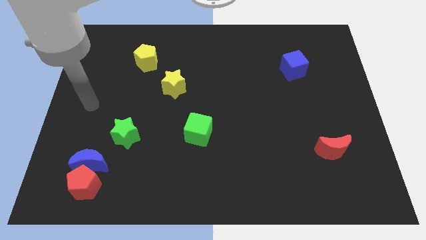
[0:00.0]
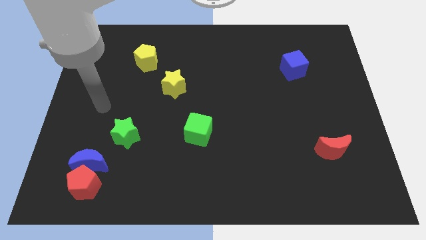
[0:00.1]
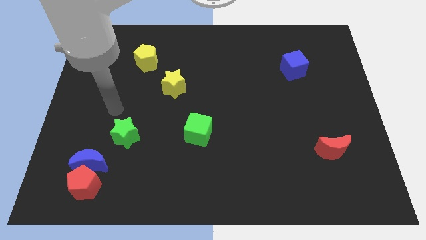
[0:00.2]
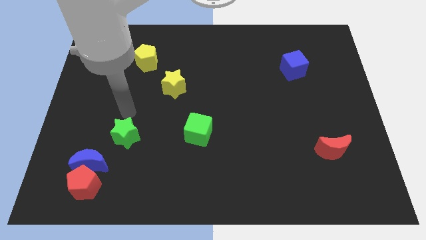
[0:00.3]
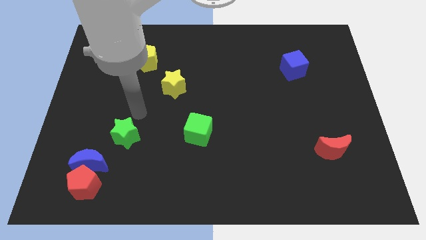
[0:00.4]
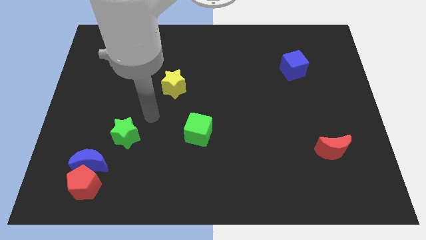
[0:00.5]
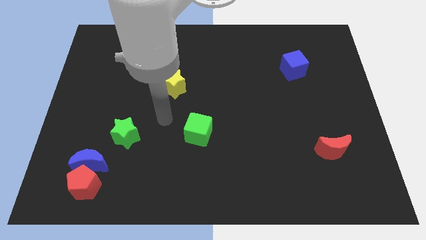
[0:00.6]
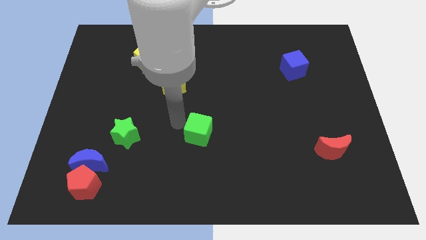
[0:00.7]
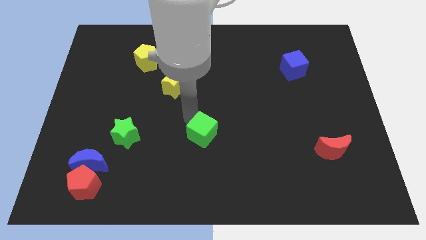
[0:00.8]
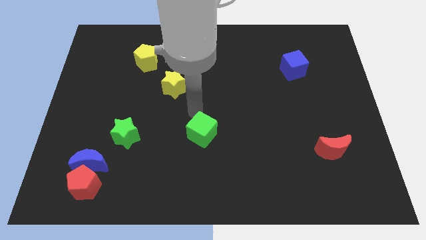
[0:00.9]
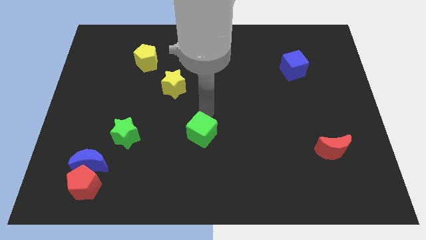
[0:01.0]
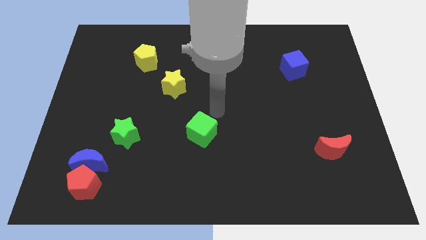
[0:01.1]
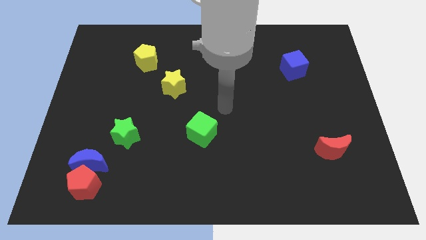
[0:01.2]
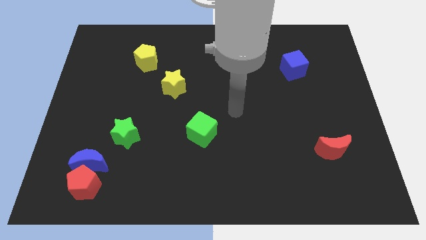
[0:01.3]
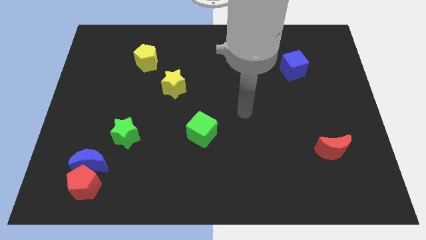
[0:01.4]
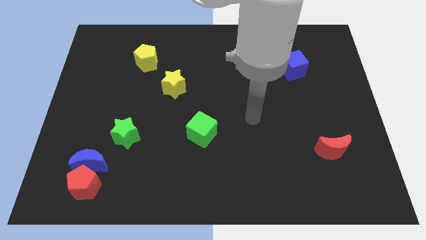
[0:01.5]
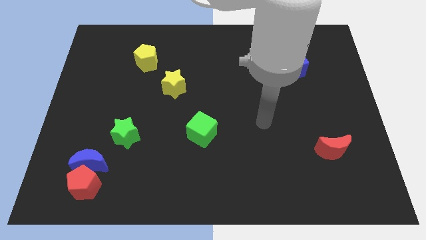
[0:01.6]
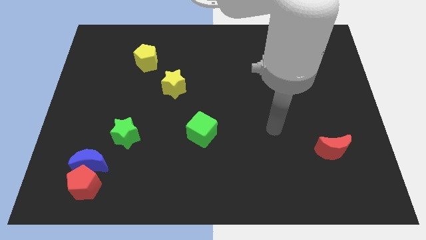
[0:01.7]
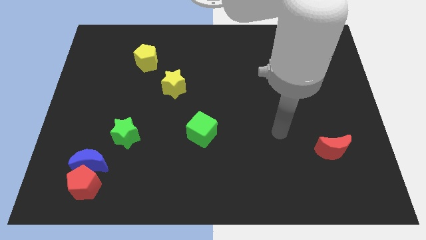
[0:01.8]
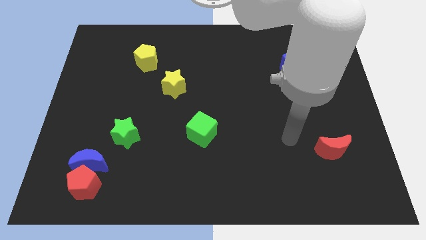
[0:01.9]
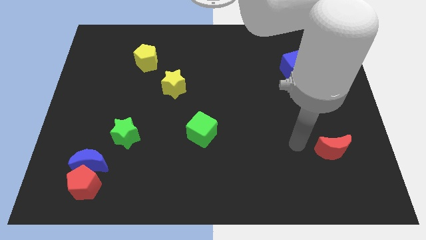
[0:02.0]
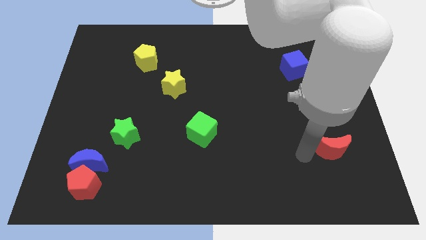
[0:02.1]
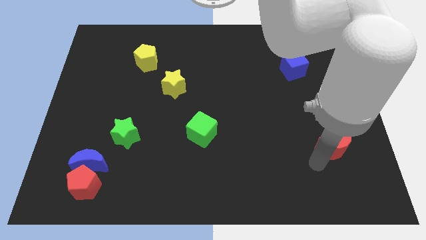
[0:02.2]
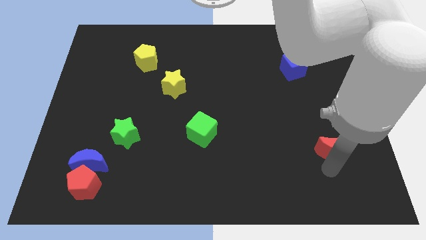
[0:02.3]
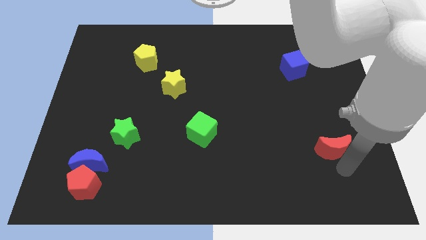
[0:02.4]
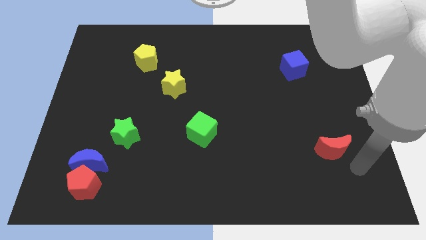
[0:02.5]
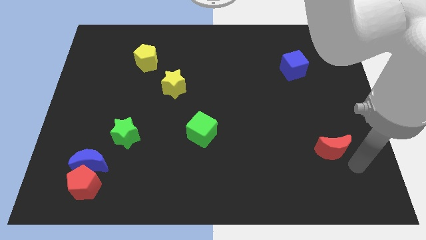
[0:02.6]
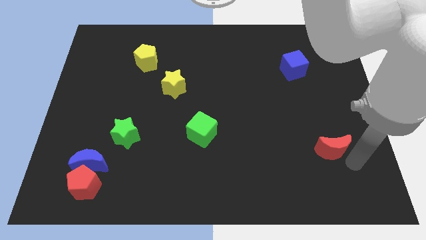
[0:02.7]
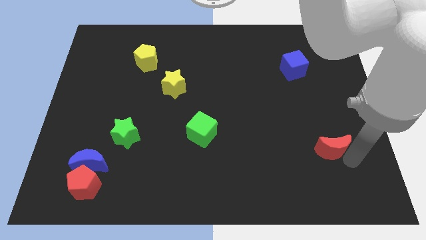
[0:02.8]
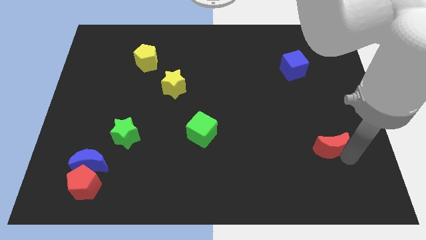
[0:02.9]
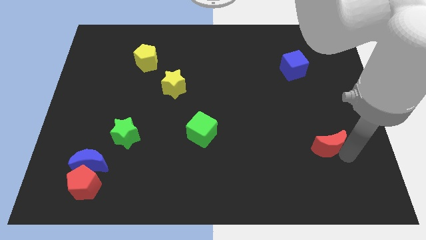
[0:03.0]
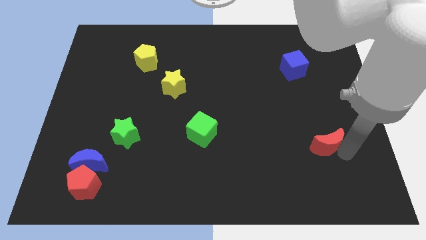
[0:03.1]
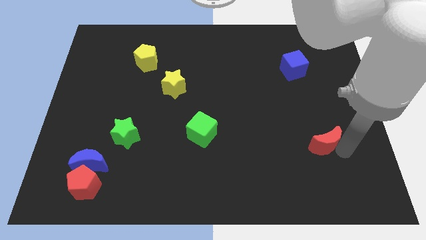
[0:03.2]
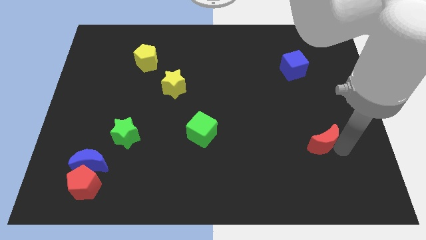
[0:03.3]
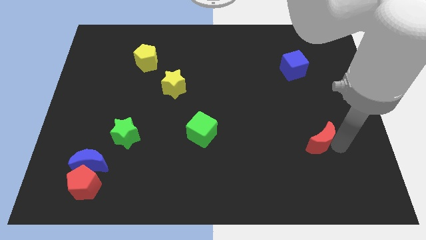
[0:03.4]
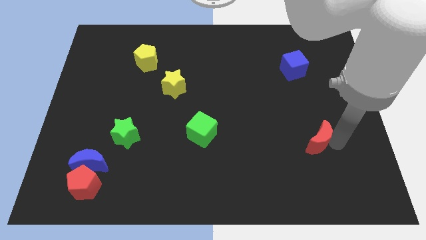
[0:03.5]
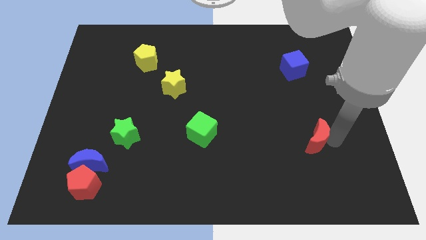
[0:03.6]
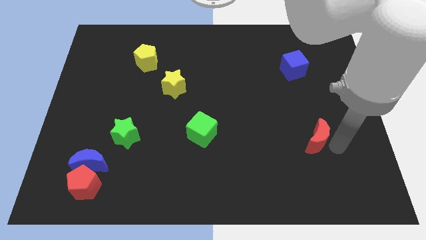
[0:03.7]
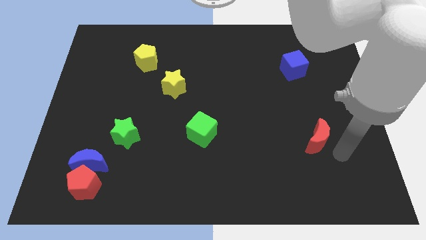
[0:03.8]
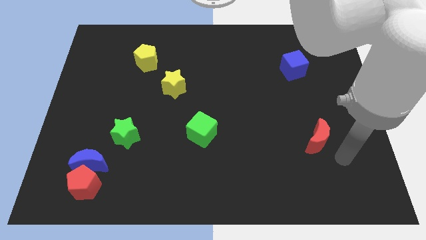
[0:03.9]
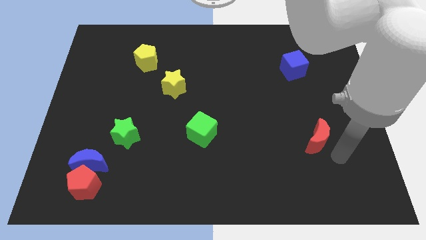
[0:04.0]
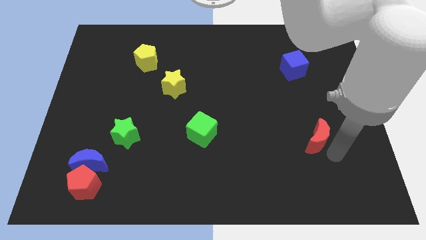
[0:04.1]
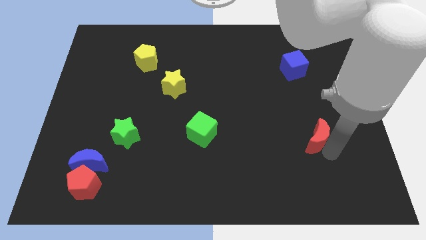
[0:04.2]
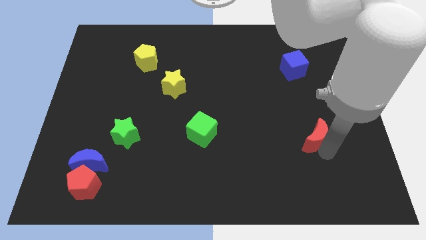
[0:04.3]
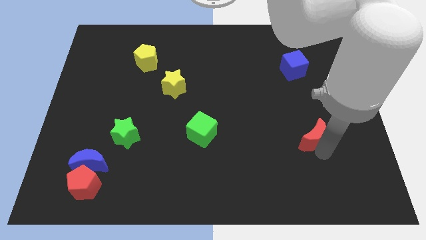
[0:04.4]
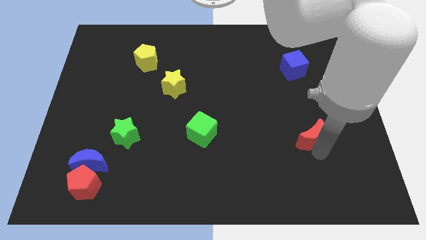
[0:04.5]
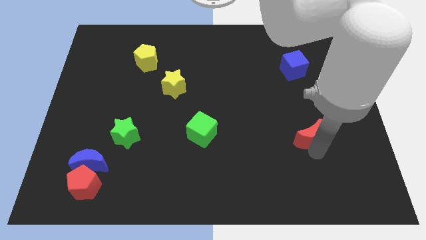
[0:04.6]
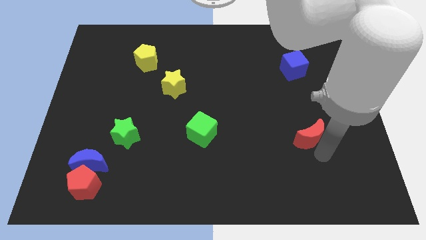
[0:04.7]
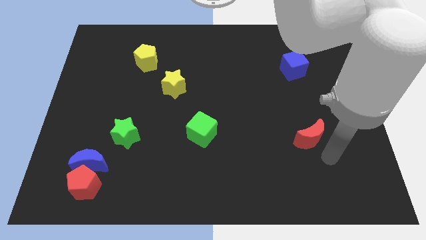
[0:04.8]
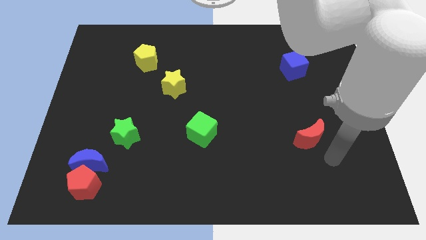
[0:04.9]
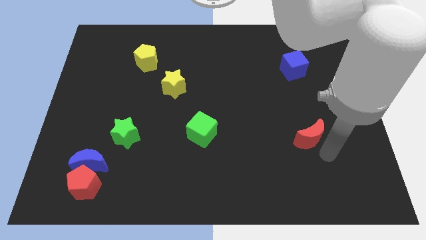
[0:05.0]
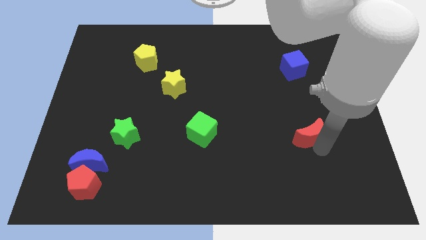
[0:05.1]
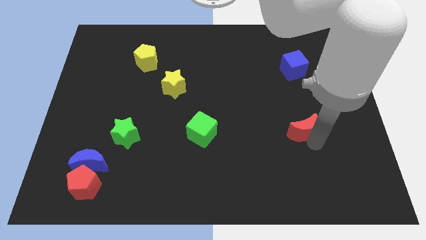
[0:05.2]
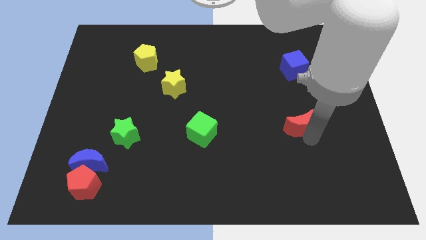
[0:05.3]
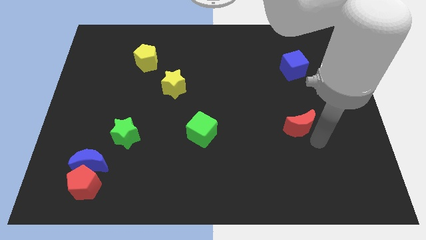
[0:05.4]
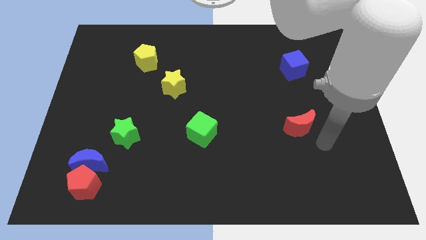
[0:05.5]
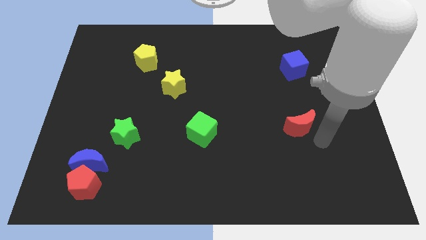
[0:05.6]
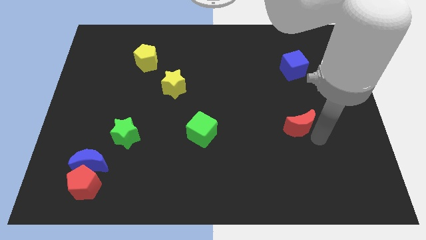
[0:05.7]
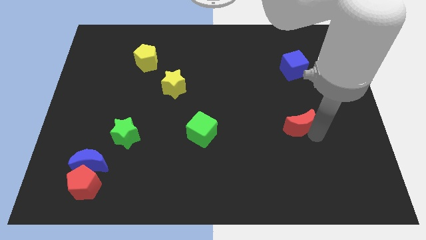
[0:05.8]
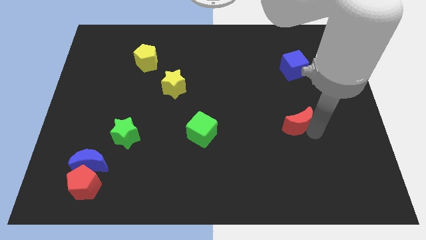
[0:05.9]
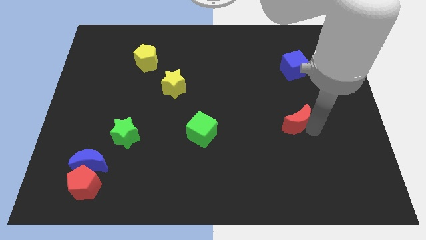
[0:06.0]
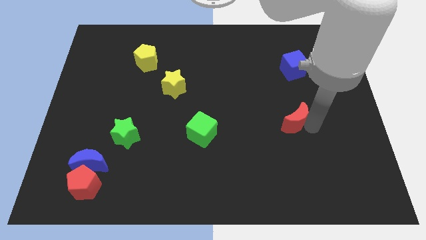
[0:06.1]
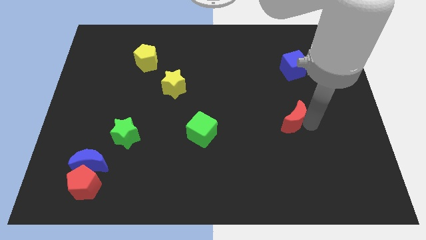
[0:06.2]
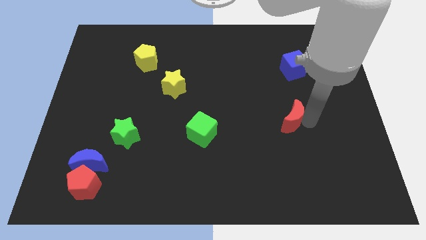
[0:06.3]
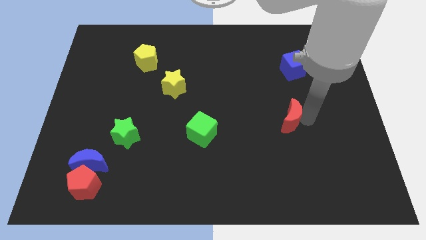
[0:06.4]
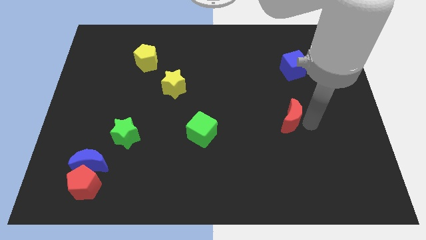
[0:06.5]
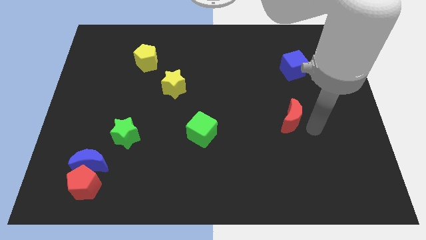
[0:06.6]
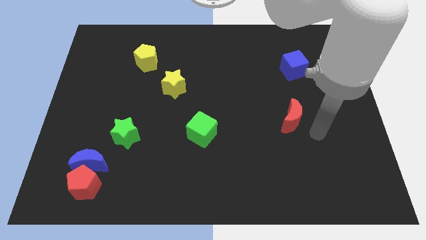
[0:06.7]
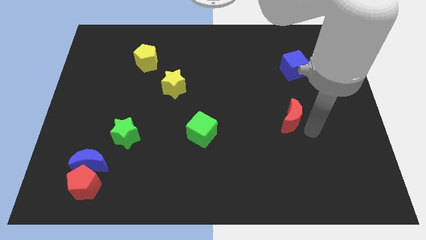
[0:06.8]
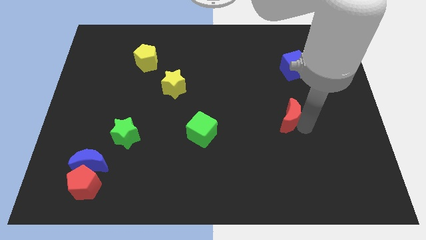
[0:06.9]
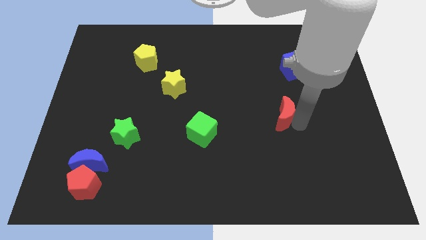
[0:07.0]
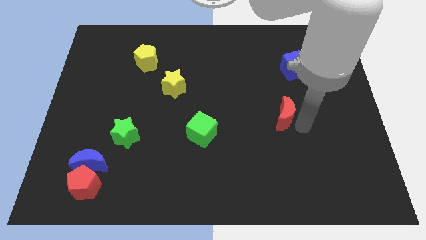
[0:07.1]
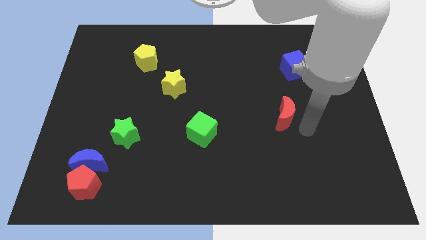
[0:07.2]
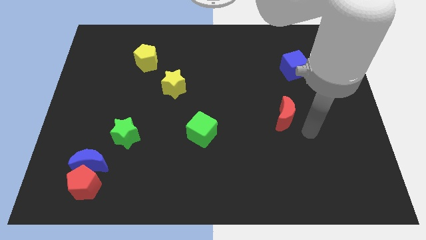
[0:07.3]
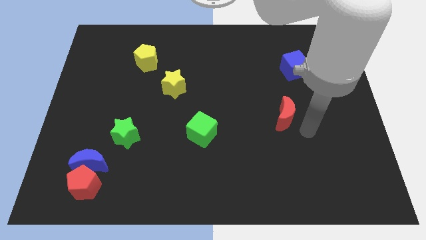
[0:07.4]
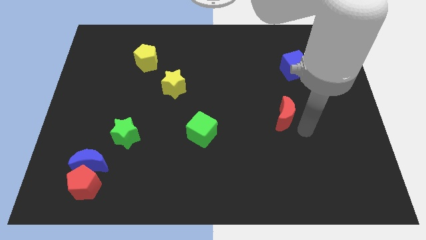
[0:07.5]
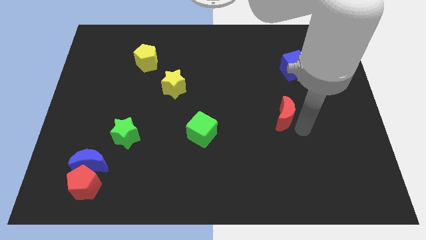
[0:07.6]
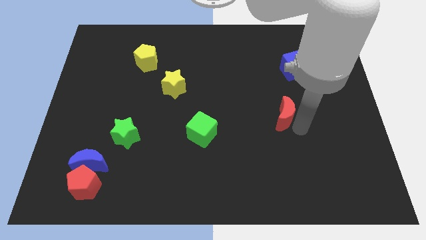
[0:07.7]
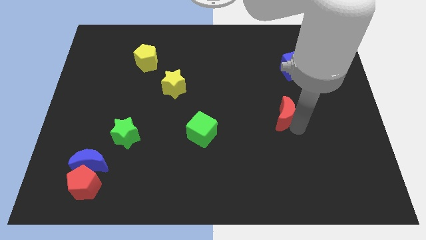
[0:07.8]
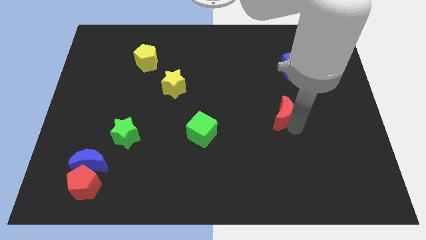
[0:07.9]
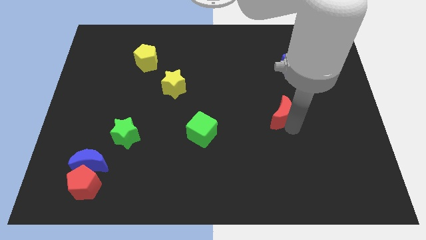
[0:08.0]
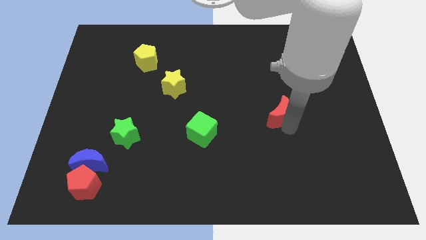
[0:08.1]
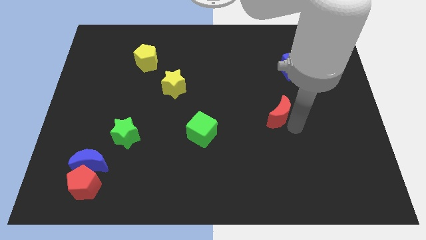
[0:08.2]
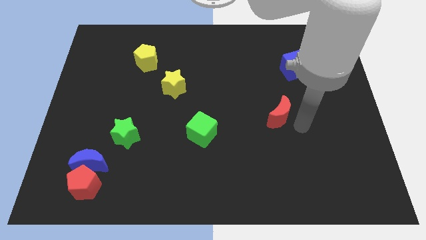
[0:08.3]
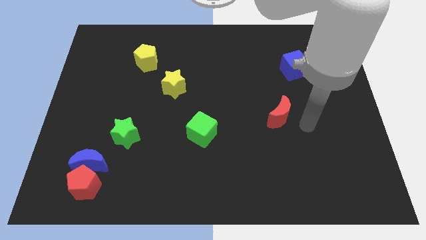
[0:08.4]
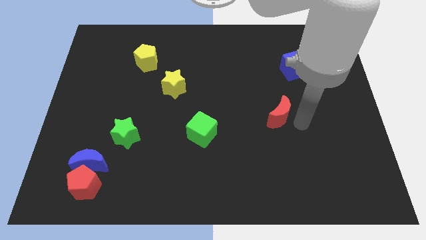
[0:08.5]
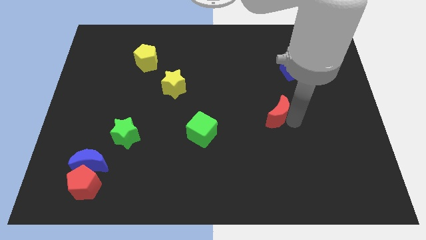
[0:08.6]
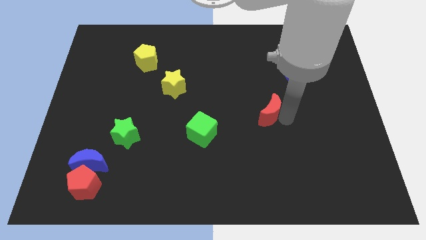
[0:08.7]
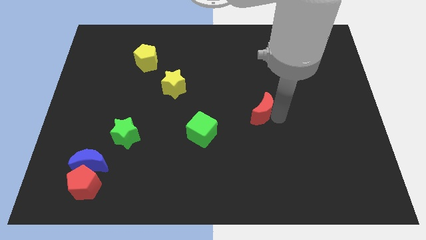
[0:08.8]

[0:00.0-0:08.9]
put the red moon to the middle of the board
